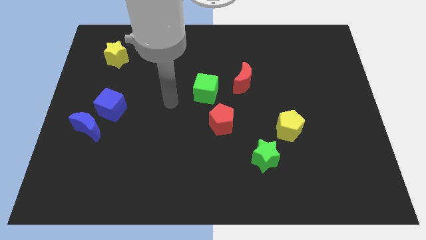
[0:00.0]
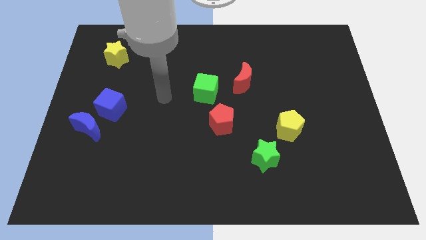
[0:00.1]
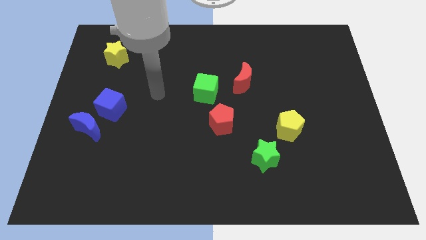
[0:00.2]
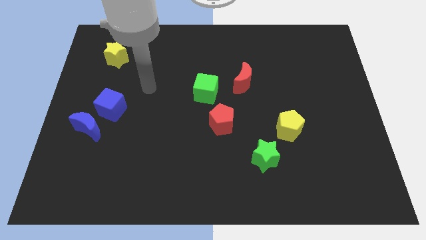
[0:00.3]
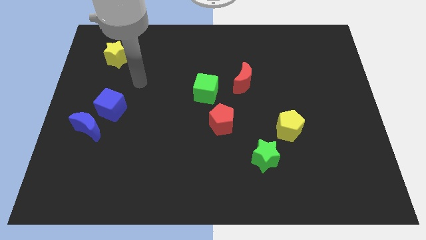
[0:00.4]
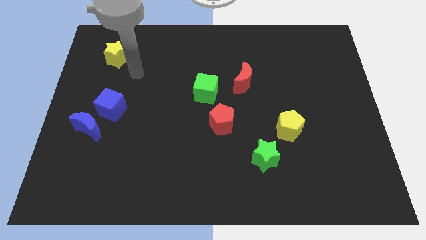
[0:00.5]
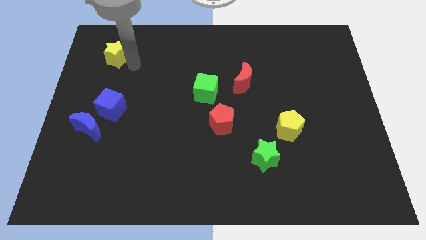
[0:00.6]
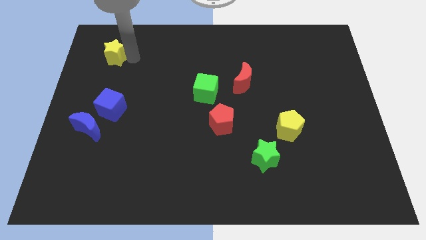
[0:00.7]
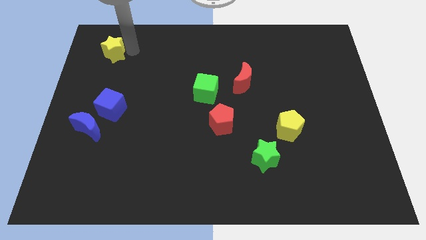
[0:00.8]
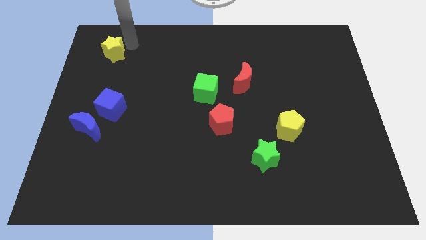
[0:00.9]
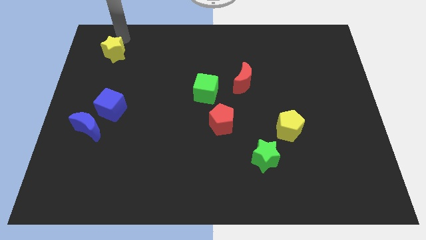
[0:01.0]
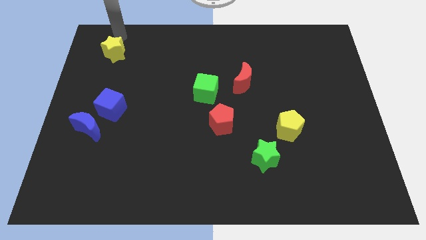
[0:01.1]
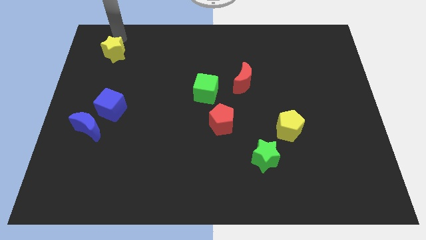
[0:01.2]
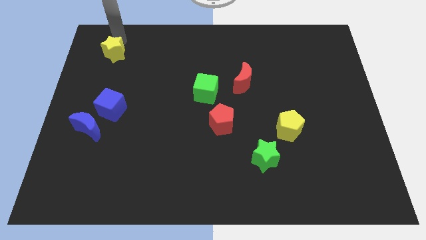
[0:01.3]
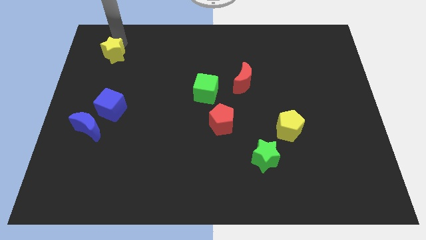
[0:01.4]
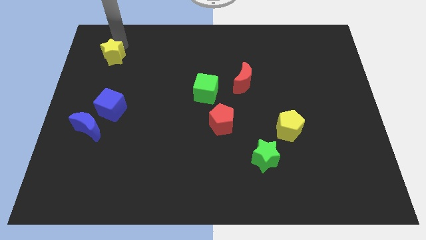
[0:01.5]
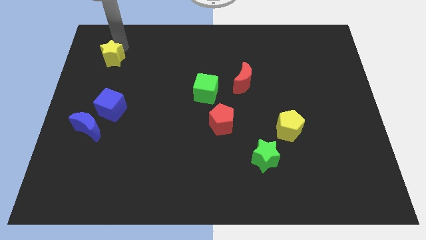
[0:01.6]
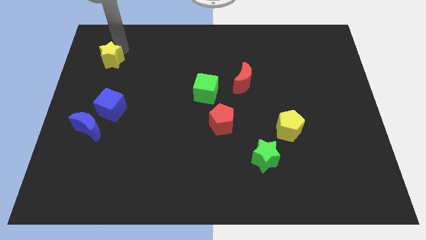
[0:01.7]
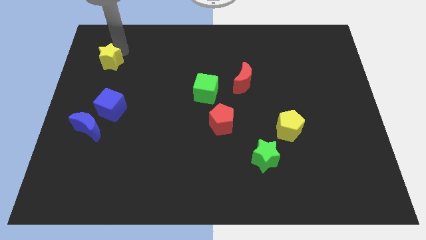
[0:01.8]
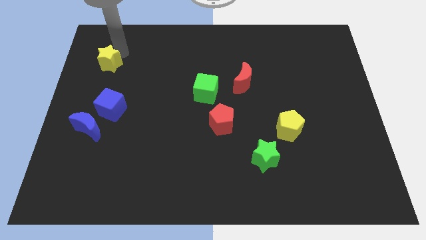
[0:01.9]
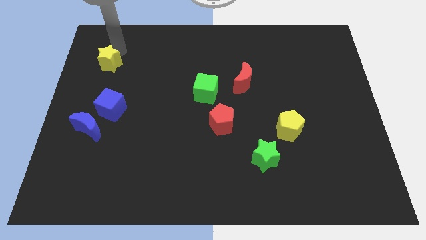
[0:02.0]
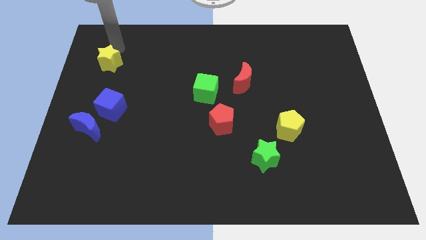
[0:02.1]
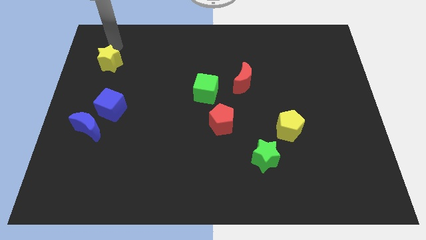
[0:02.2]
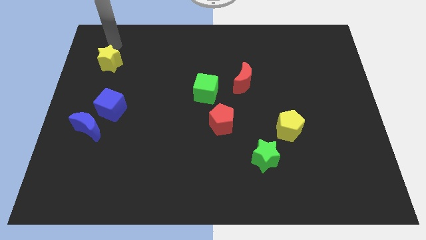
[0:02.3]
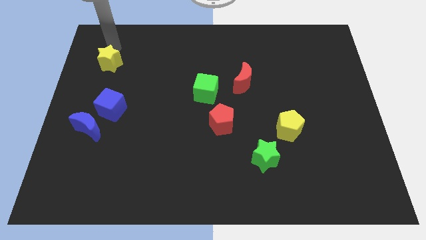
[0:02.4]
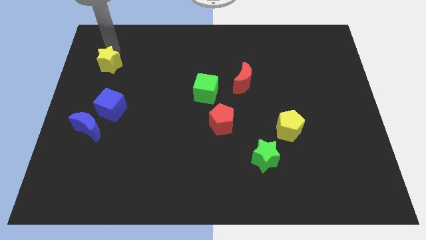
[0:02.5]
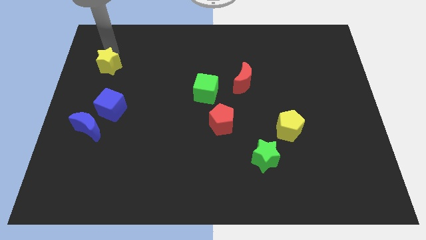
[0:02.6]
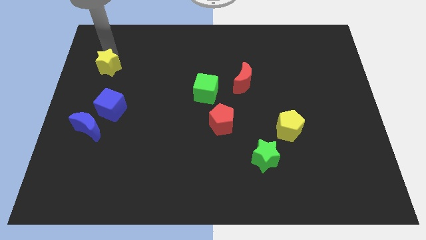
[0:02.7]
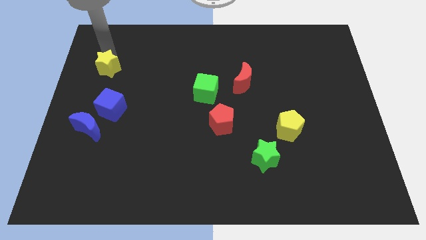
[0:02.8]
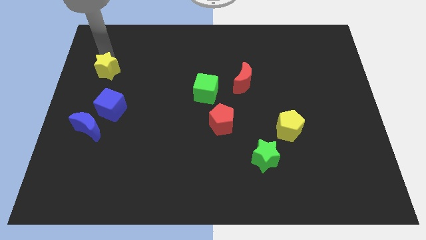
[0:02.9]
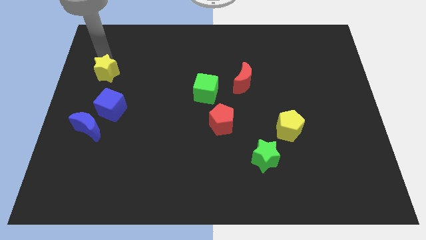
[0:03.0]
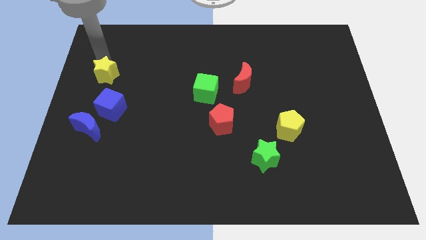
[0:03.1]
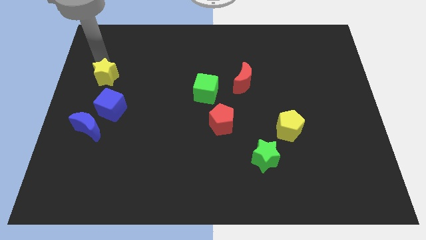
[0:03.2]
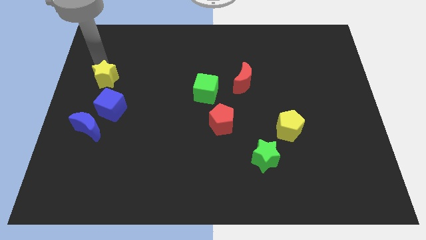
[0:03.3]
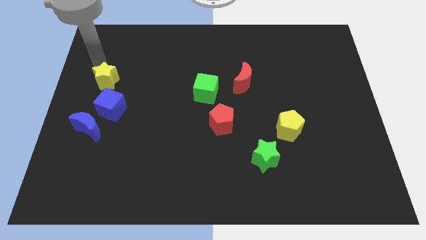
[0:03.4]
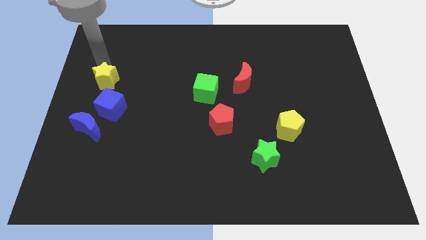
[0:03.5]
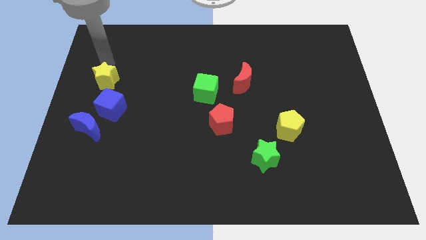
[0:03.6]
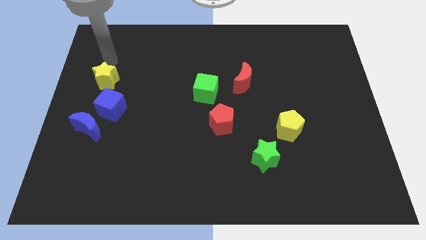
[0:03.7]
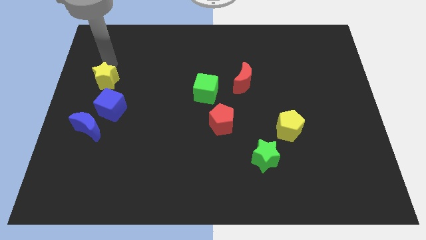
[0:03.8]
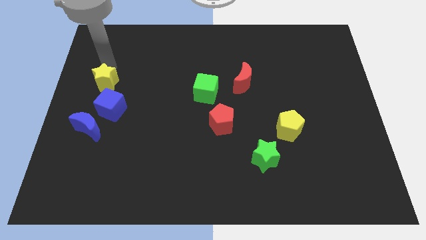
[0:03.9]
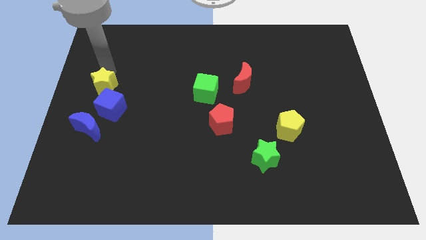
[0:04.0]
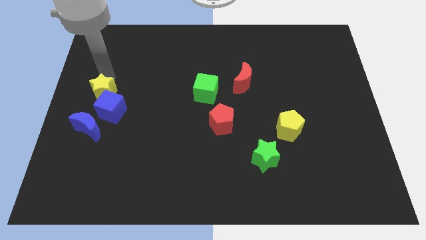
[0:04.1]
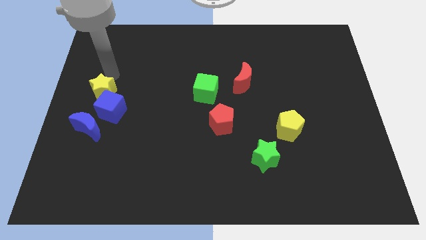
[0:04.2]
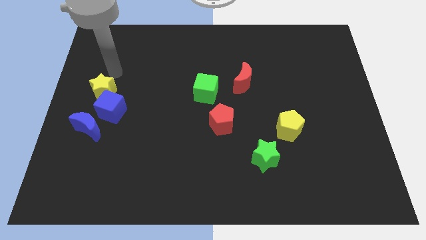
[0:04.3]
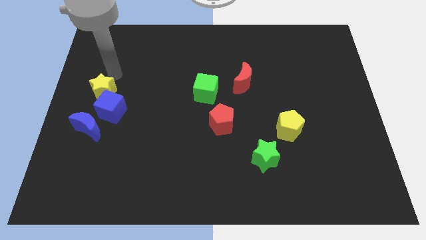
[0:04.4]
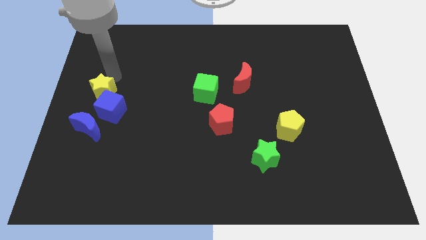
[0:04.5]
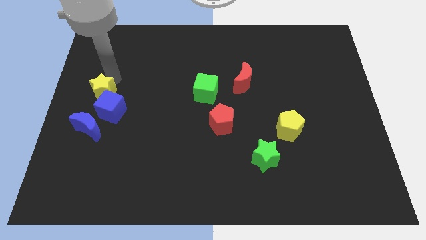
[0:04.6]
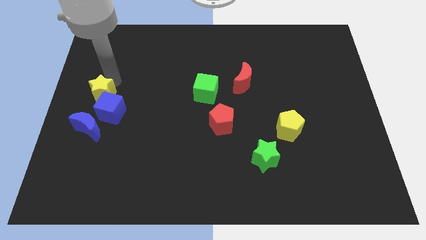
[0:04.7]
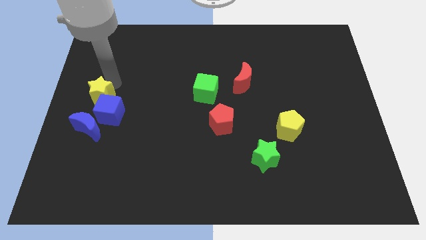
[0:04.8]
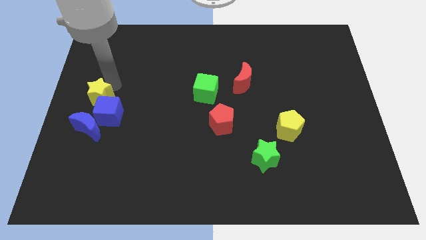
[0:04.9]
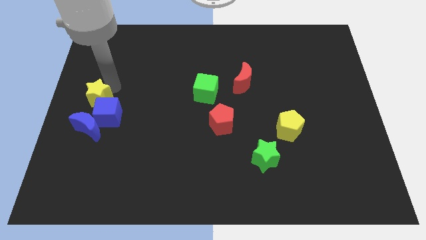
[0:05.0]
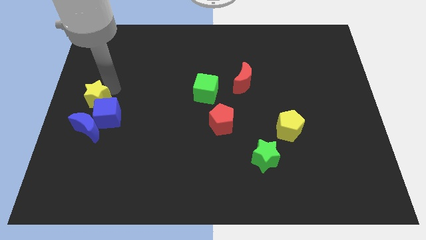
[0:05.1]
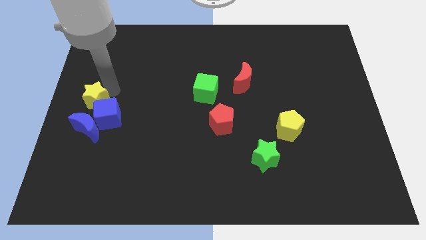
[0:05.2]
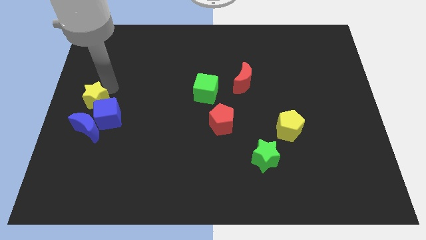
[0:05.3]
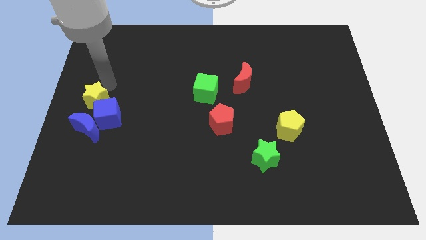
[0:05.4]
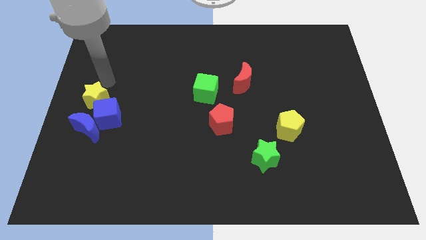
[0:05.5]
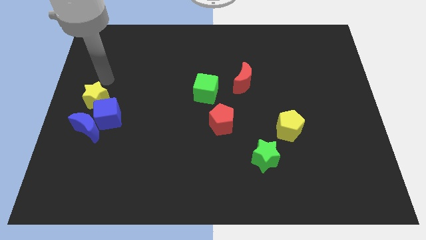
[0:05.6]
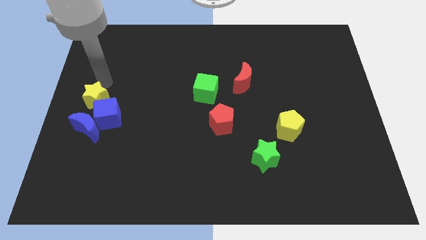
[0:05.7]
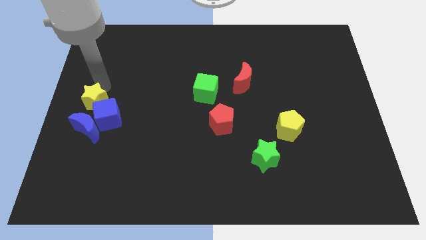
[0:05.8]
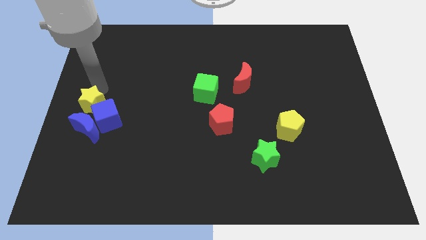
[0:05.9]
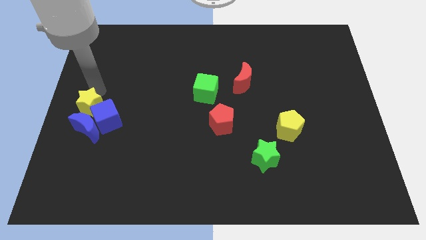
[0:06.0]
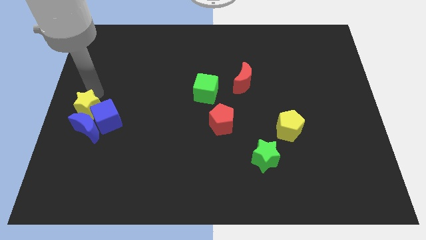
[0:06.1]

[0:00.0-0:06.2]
move the yellow star next to the blue moon

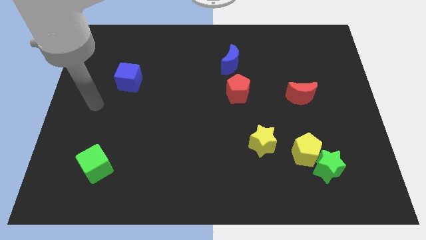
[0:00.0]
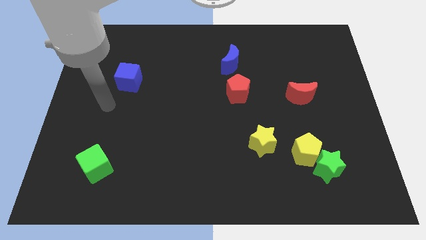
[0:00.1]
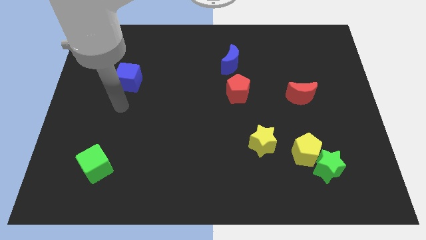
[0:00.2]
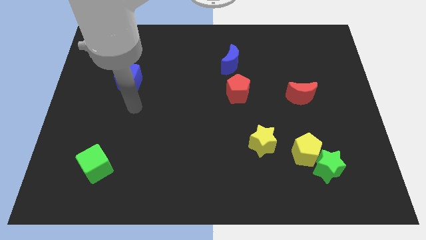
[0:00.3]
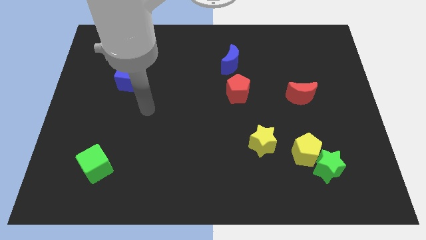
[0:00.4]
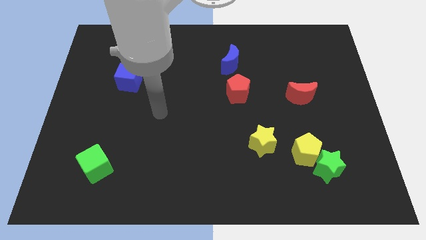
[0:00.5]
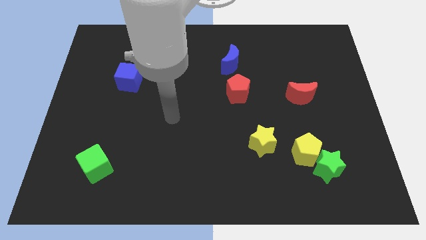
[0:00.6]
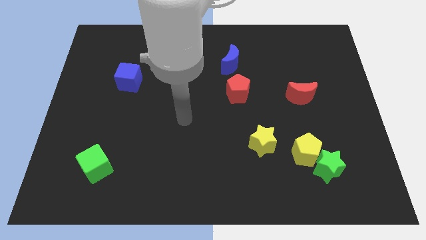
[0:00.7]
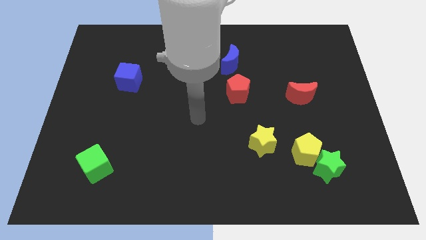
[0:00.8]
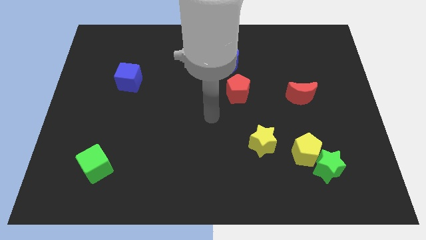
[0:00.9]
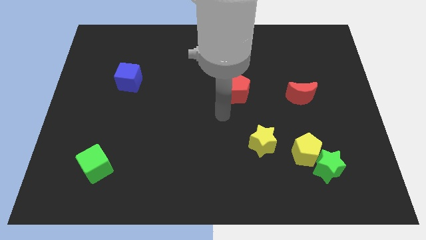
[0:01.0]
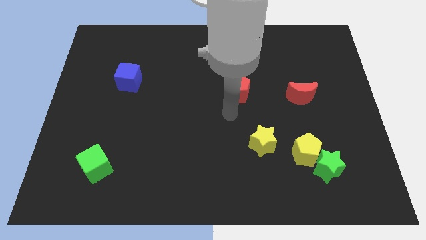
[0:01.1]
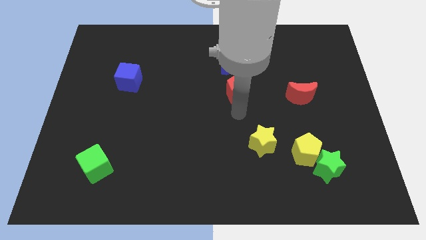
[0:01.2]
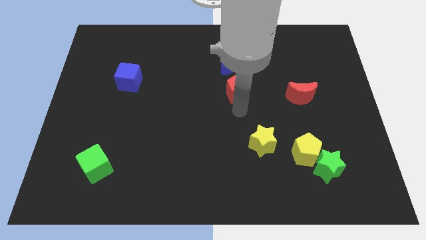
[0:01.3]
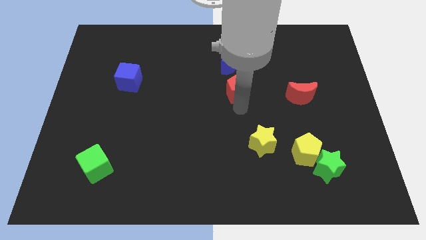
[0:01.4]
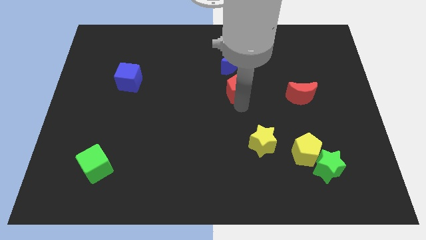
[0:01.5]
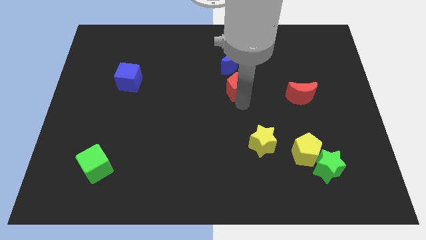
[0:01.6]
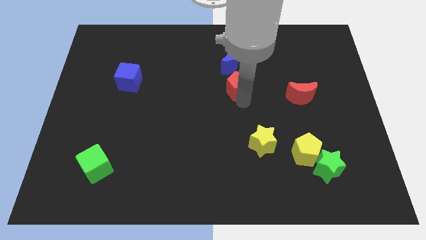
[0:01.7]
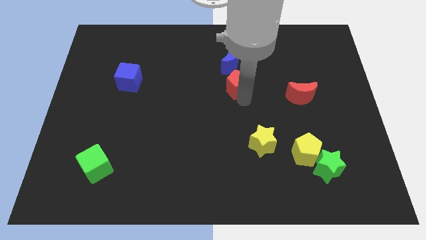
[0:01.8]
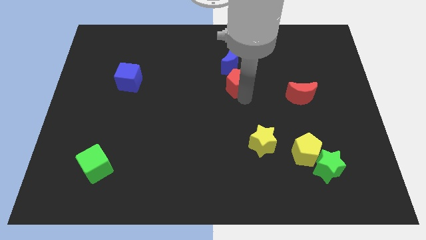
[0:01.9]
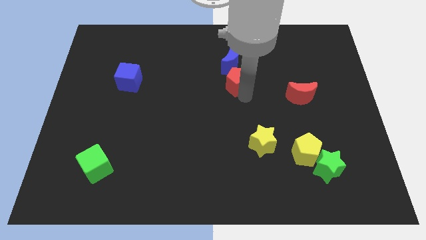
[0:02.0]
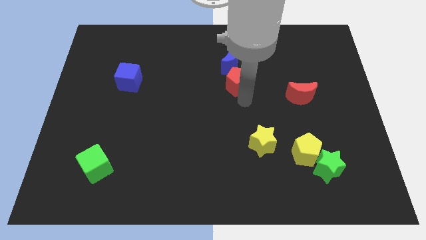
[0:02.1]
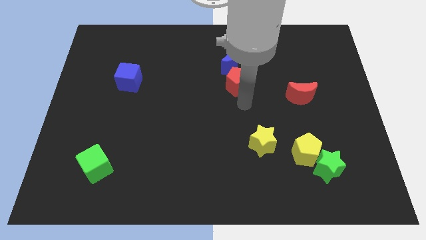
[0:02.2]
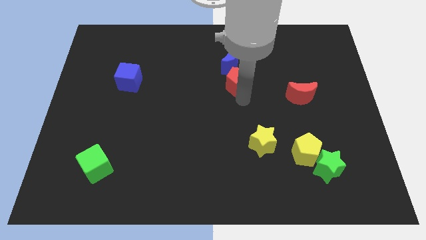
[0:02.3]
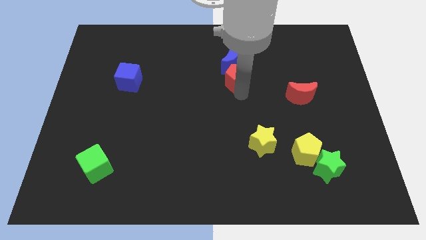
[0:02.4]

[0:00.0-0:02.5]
put the red pentagon next to the blue moon
